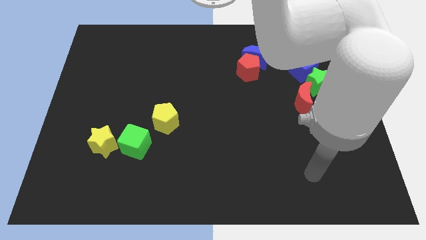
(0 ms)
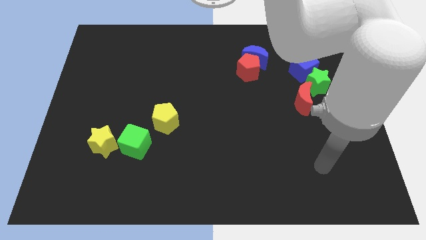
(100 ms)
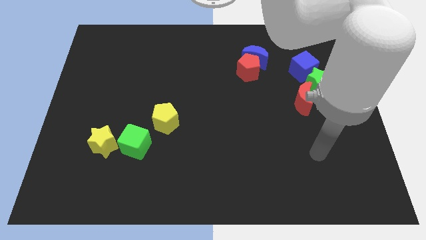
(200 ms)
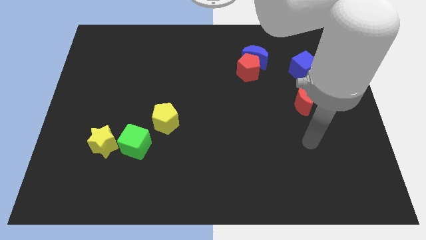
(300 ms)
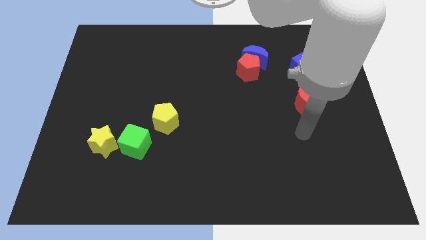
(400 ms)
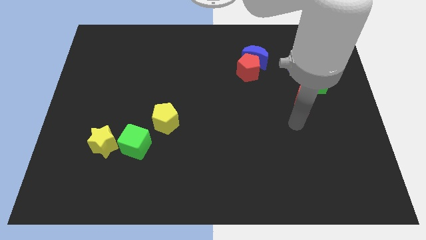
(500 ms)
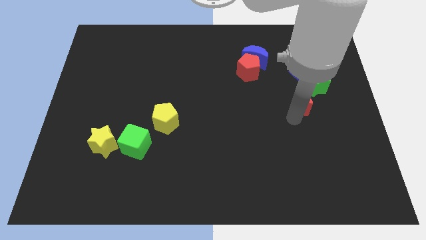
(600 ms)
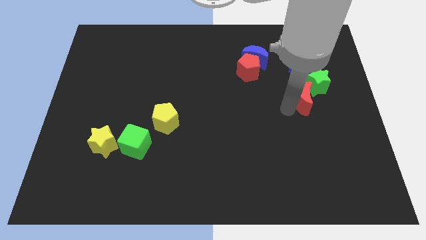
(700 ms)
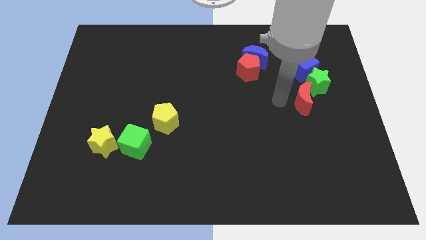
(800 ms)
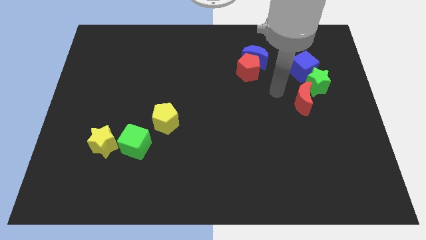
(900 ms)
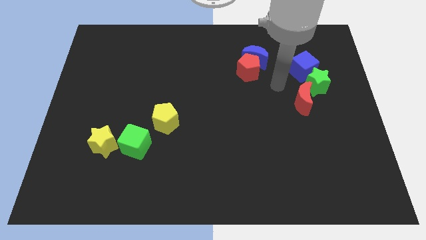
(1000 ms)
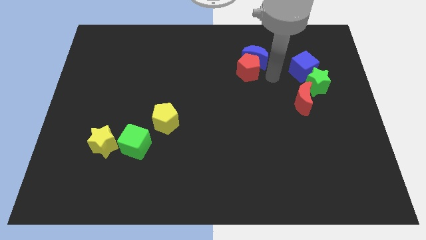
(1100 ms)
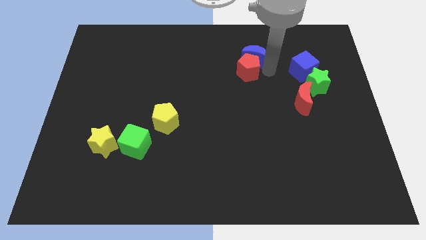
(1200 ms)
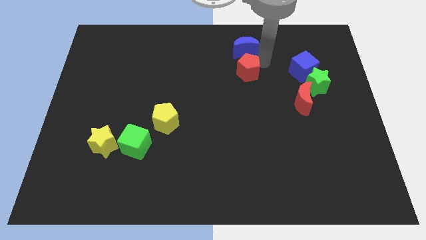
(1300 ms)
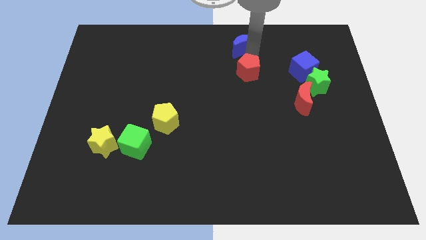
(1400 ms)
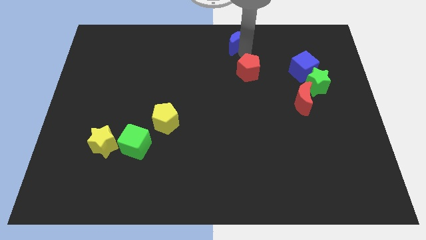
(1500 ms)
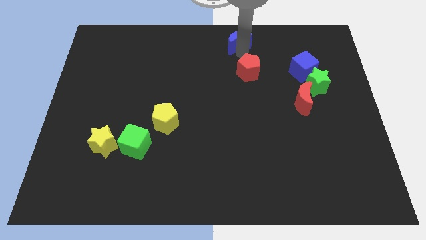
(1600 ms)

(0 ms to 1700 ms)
separate the red pentagon from the blue moon

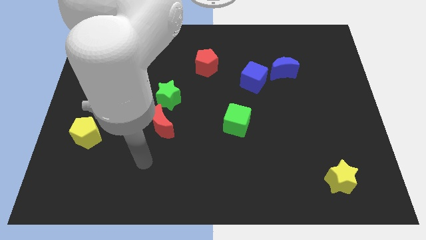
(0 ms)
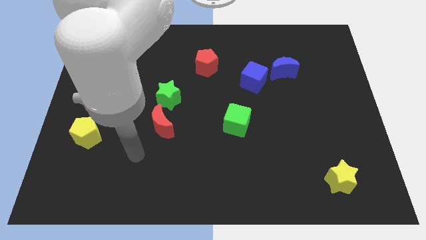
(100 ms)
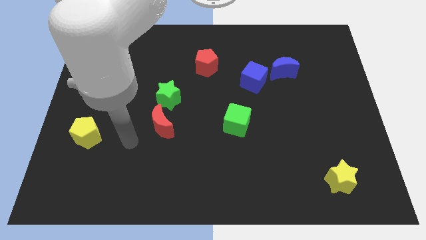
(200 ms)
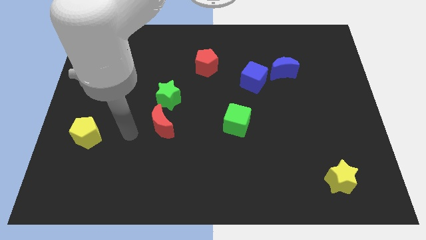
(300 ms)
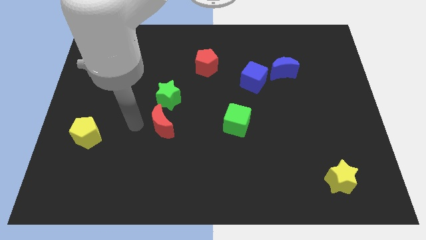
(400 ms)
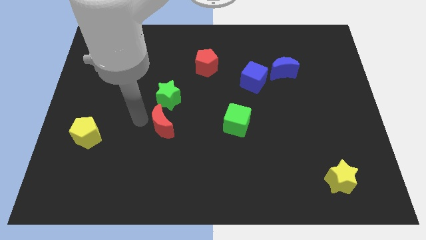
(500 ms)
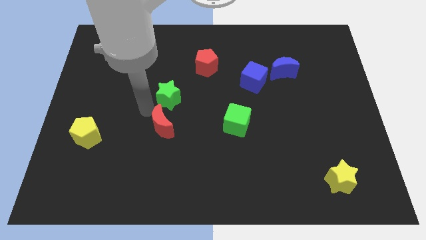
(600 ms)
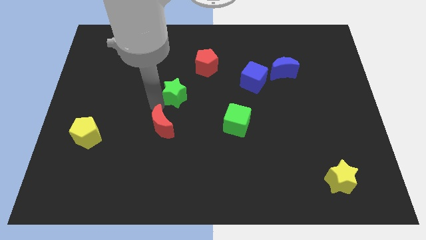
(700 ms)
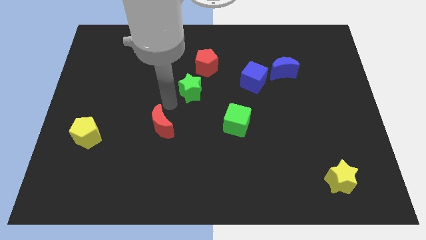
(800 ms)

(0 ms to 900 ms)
move the red moon away from the green star

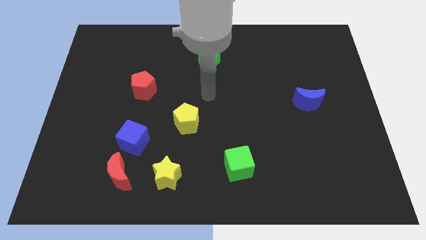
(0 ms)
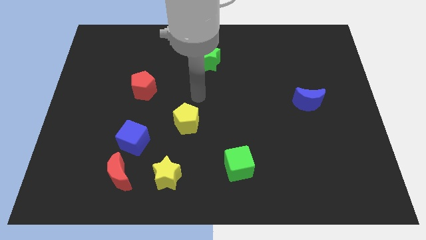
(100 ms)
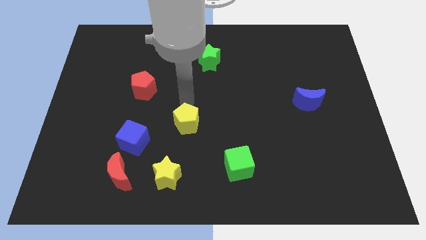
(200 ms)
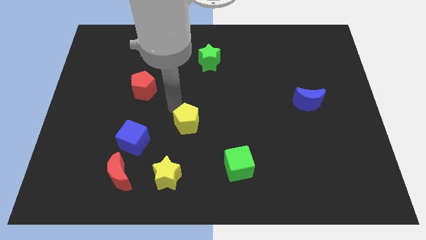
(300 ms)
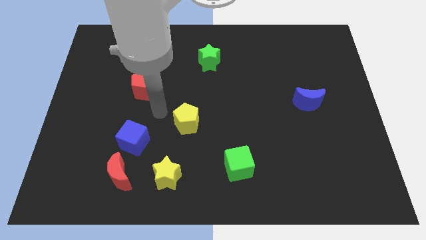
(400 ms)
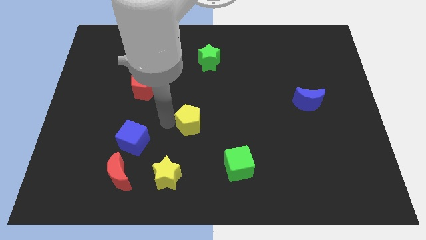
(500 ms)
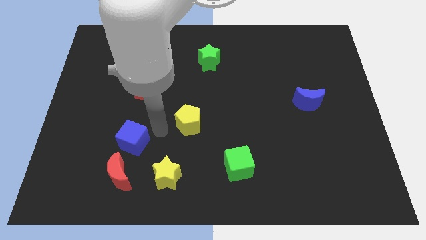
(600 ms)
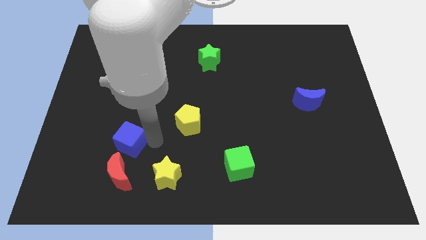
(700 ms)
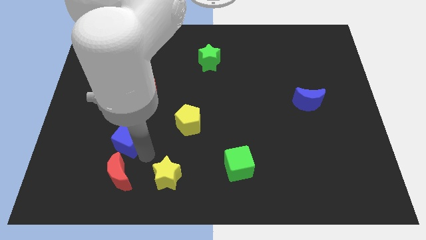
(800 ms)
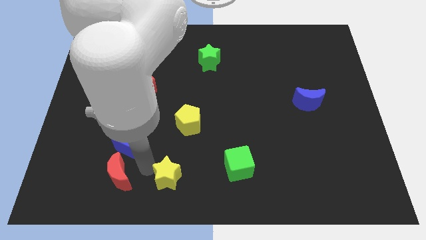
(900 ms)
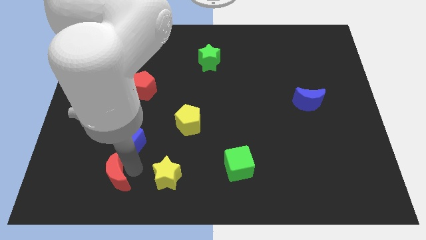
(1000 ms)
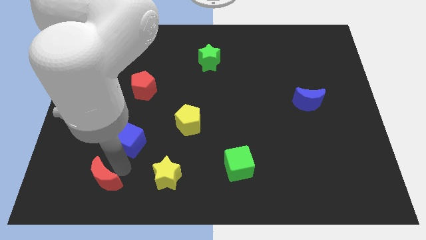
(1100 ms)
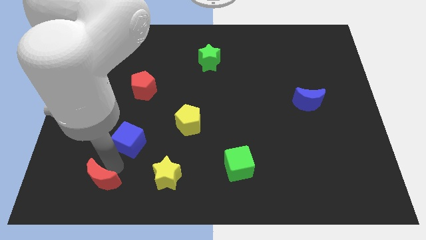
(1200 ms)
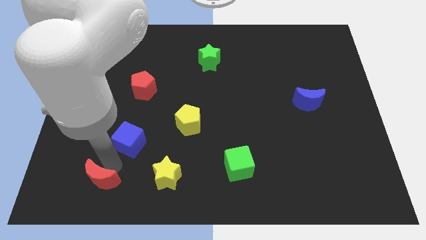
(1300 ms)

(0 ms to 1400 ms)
move the blue cube away from the red moon

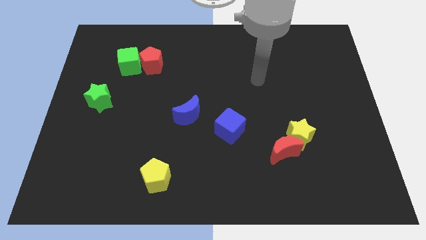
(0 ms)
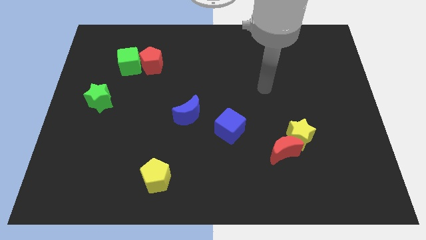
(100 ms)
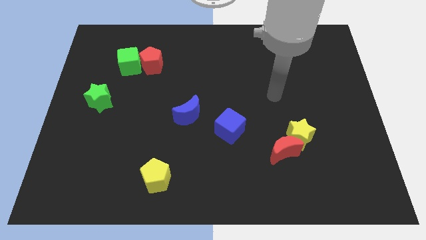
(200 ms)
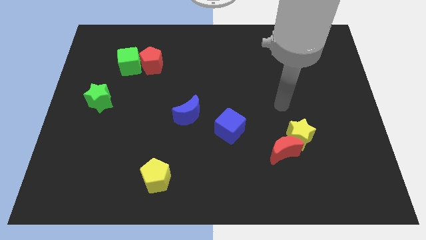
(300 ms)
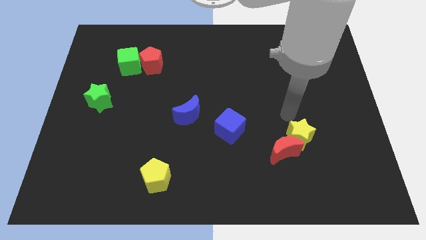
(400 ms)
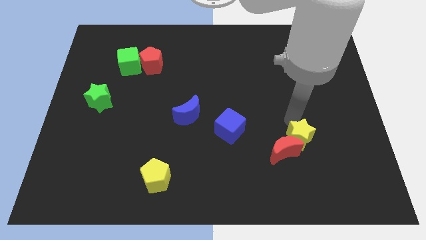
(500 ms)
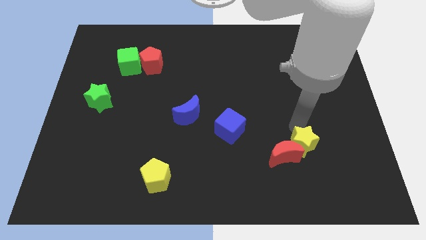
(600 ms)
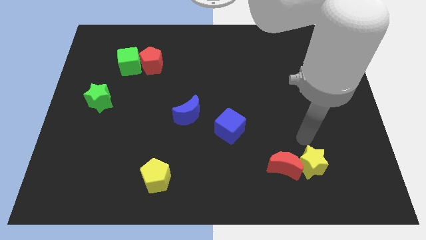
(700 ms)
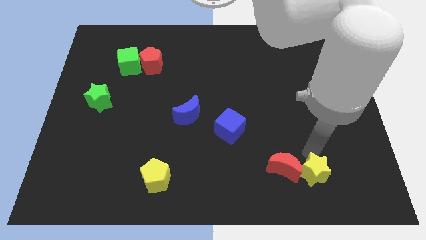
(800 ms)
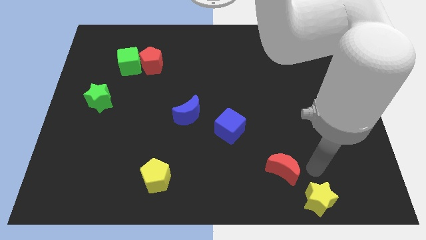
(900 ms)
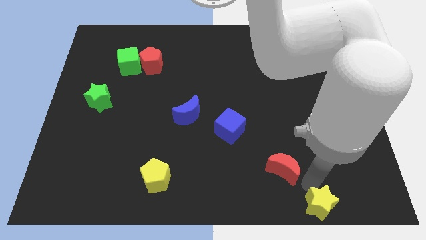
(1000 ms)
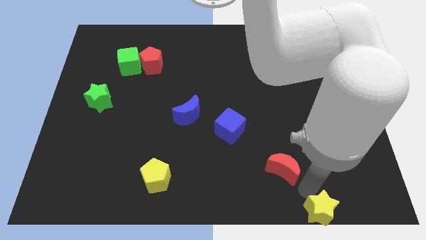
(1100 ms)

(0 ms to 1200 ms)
pull the red moon apart from the yellow star

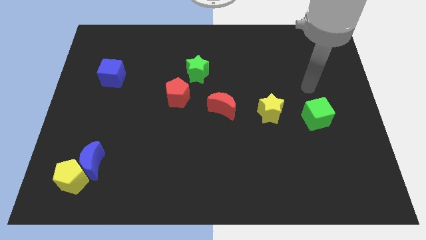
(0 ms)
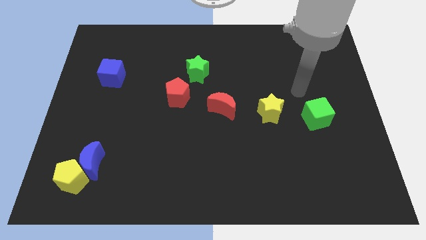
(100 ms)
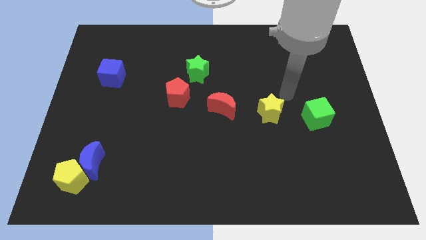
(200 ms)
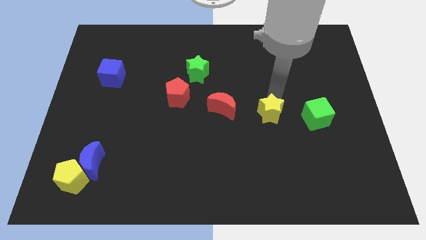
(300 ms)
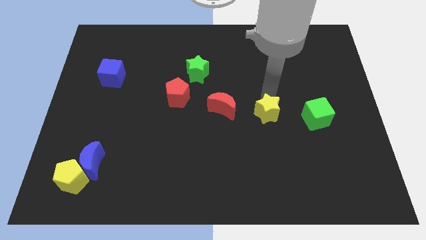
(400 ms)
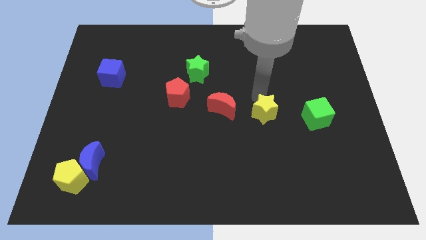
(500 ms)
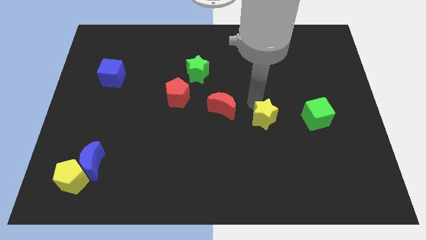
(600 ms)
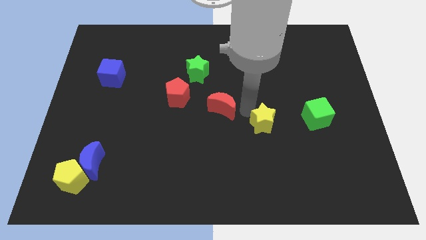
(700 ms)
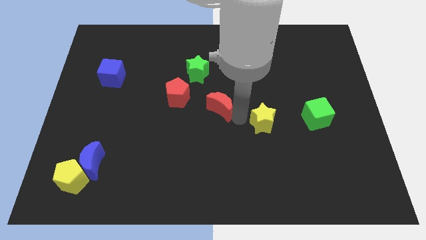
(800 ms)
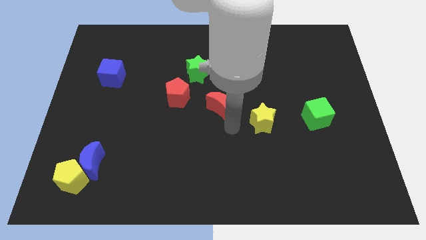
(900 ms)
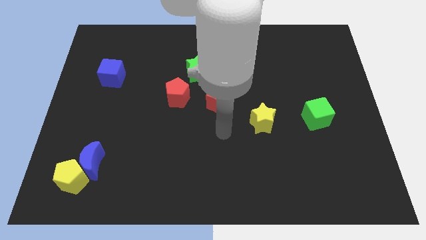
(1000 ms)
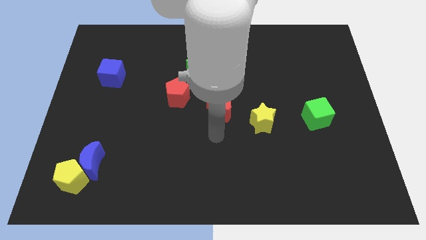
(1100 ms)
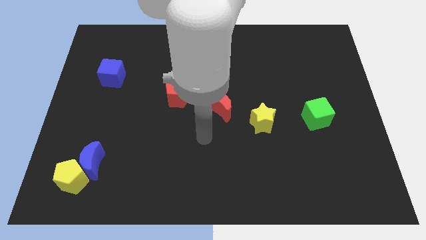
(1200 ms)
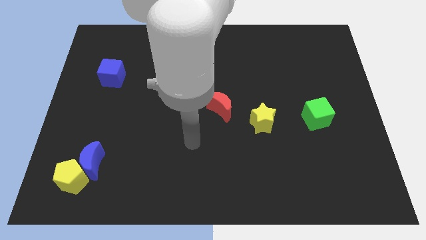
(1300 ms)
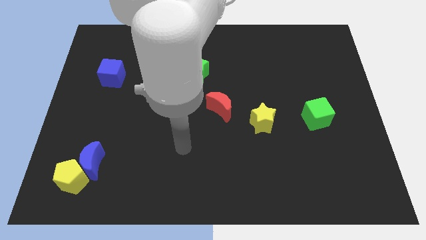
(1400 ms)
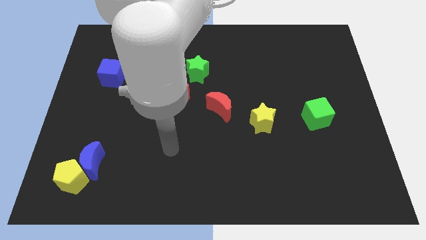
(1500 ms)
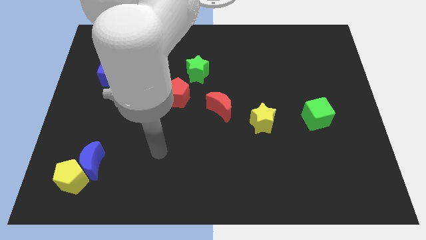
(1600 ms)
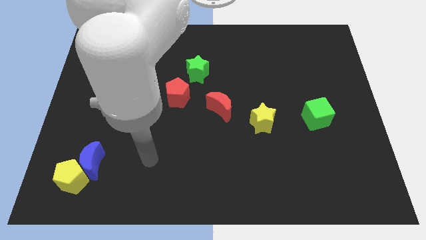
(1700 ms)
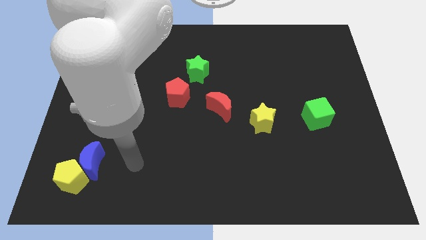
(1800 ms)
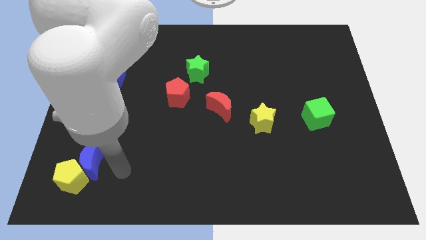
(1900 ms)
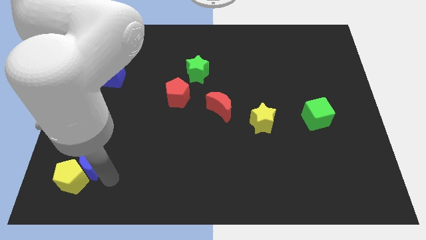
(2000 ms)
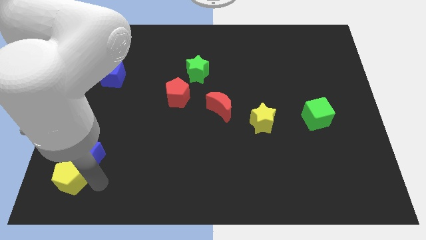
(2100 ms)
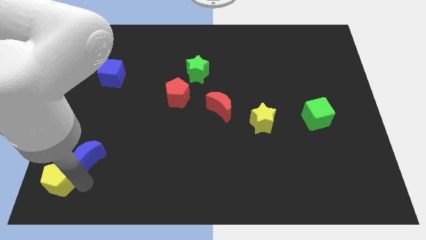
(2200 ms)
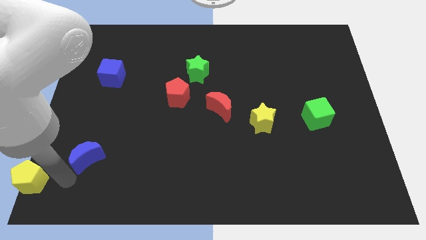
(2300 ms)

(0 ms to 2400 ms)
move the blue moon away from the yellow pentagon

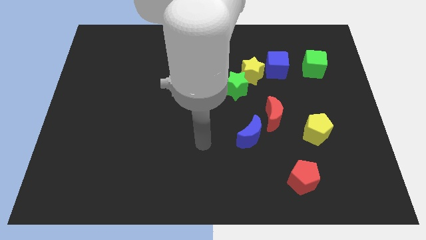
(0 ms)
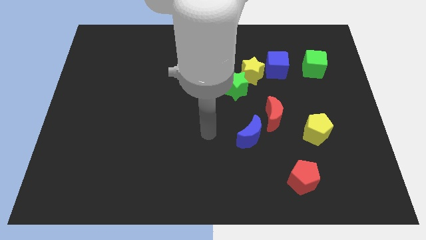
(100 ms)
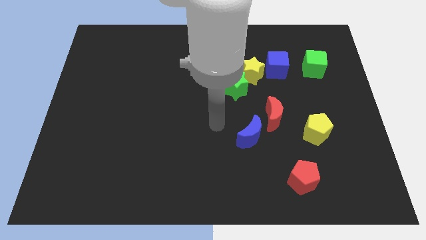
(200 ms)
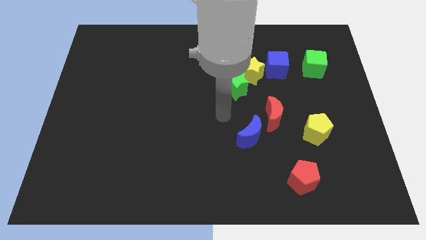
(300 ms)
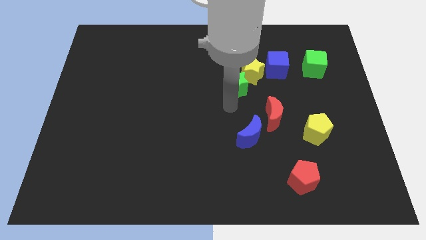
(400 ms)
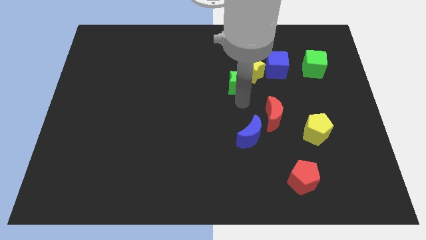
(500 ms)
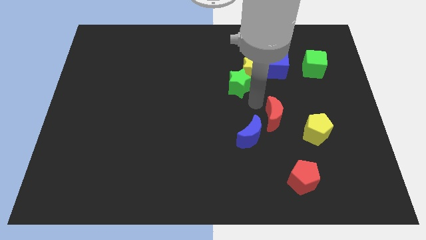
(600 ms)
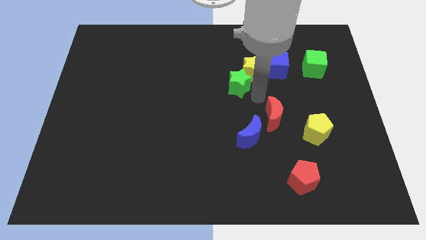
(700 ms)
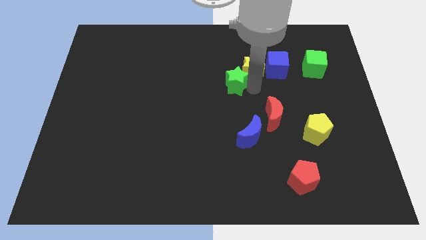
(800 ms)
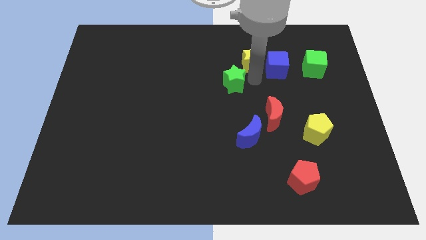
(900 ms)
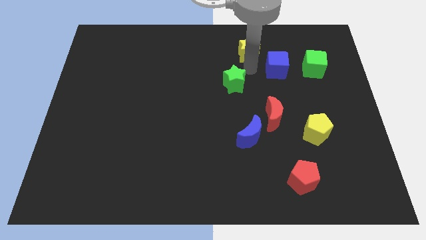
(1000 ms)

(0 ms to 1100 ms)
move the green star away from the yellow star

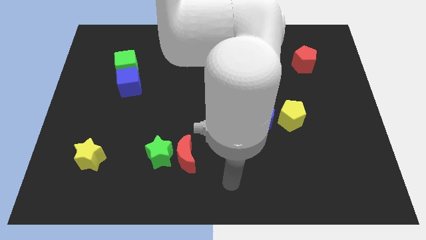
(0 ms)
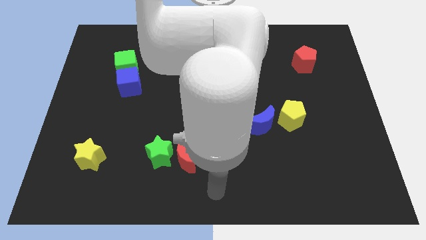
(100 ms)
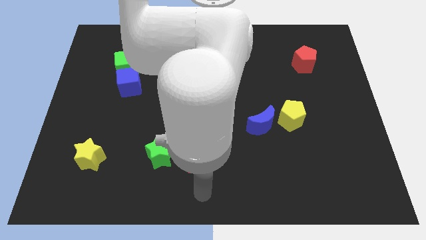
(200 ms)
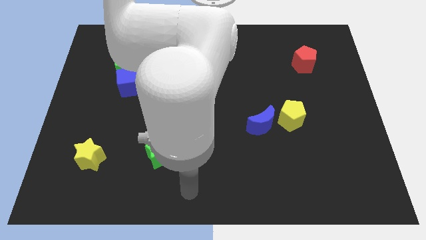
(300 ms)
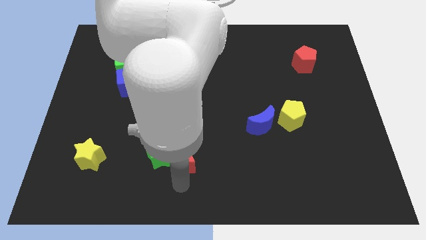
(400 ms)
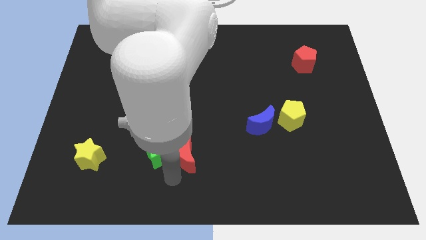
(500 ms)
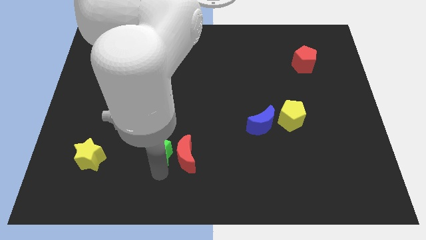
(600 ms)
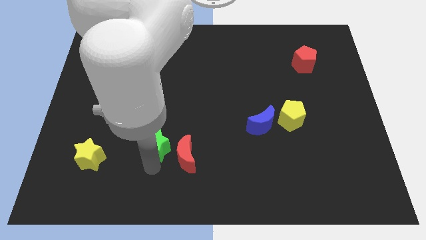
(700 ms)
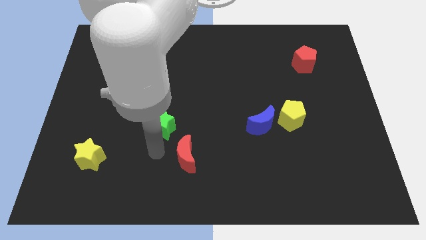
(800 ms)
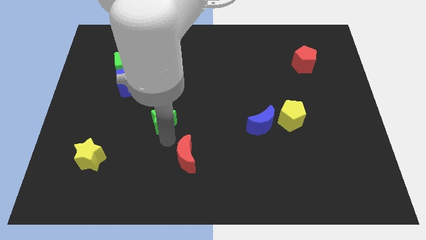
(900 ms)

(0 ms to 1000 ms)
separate the red moon from the green star
